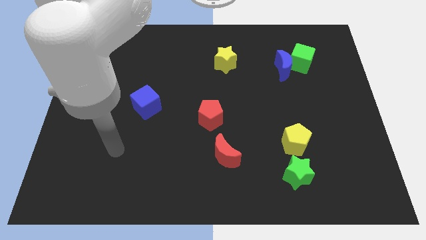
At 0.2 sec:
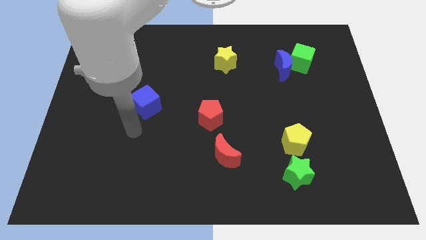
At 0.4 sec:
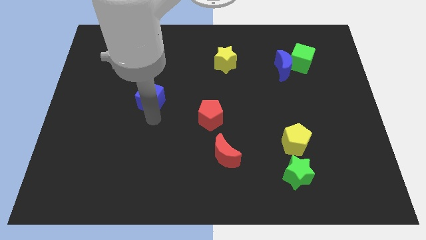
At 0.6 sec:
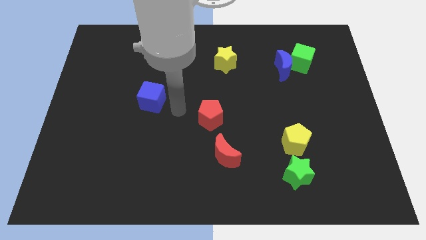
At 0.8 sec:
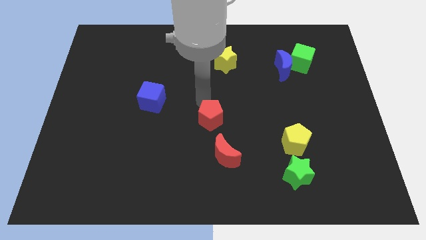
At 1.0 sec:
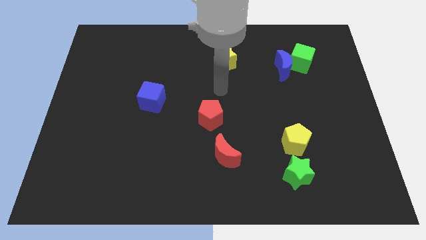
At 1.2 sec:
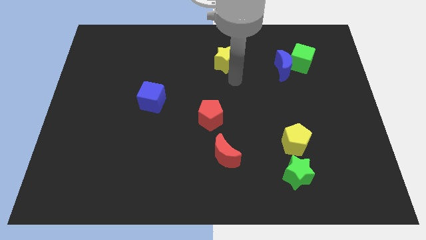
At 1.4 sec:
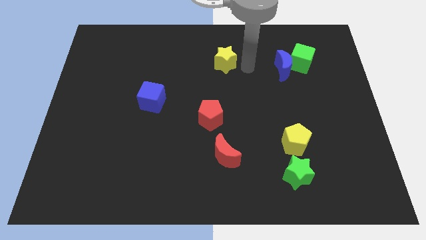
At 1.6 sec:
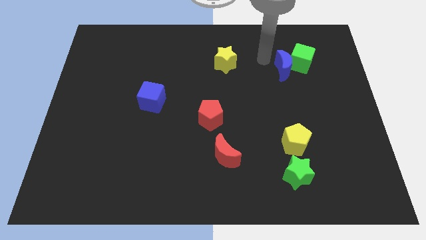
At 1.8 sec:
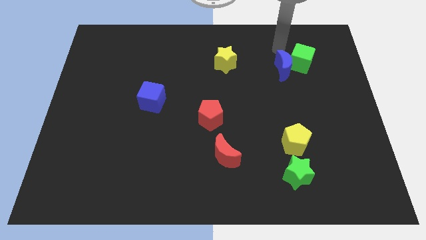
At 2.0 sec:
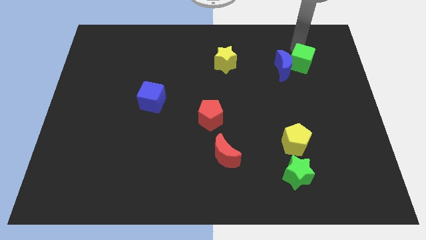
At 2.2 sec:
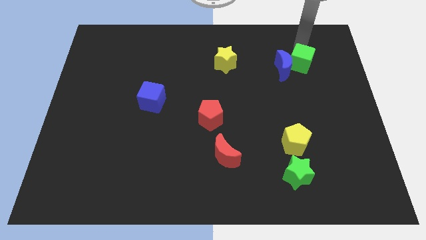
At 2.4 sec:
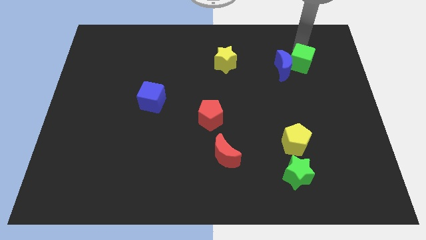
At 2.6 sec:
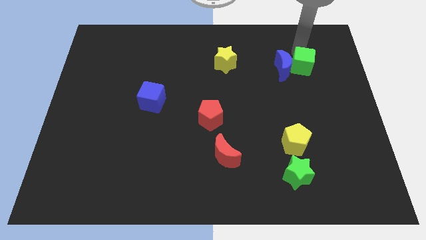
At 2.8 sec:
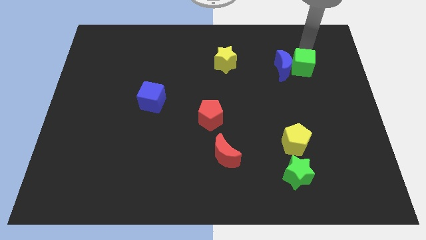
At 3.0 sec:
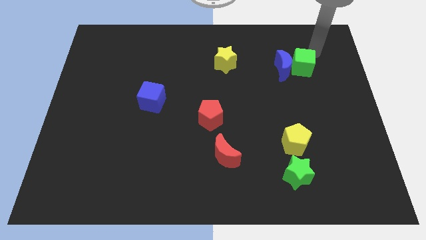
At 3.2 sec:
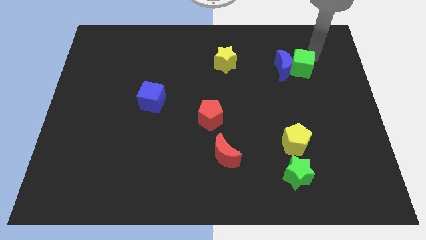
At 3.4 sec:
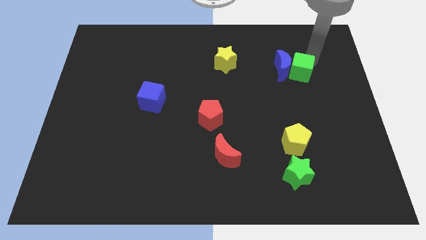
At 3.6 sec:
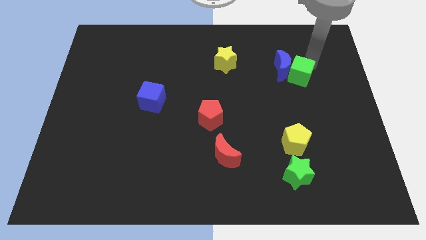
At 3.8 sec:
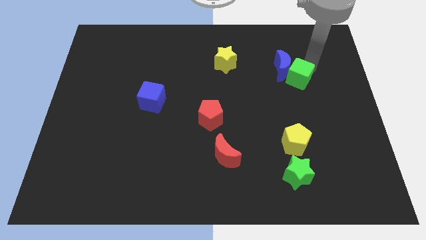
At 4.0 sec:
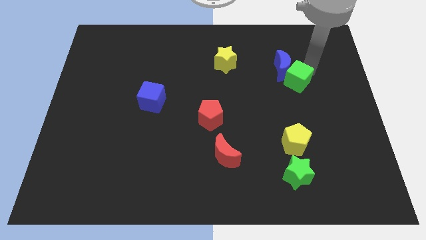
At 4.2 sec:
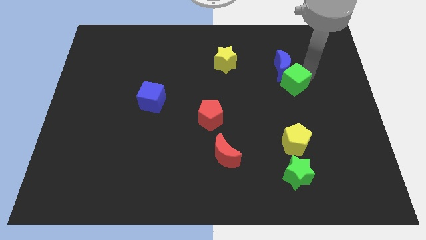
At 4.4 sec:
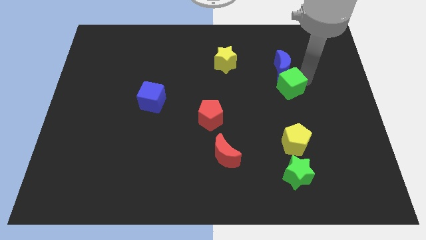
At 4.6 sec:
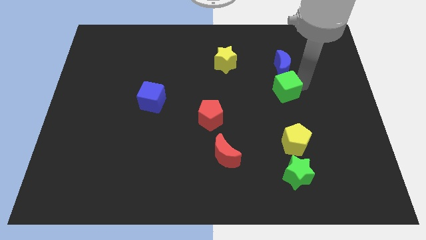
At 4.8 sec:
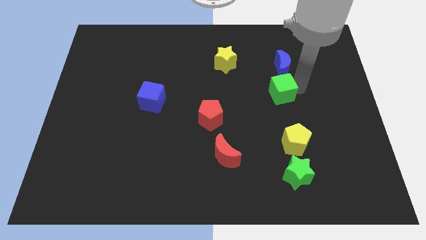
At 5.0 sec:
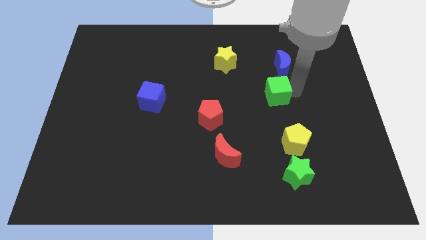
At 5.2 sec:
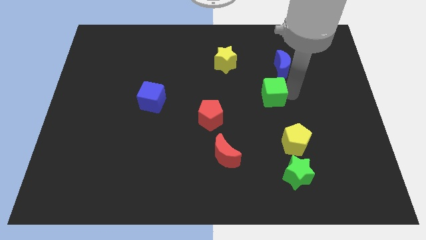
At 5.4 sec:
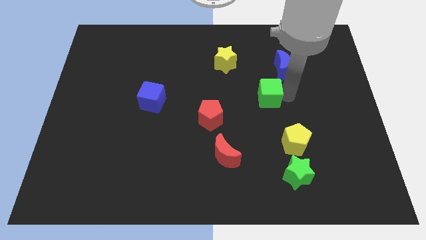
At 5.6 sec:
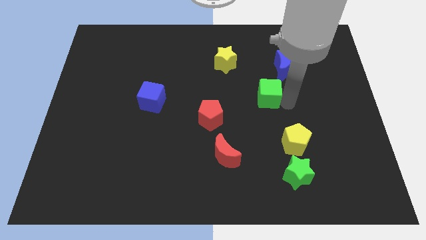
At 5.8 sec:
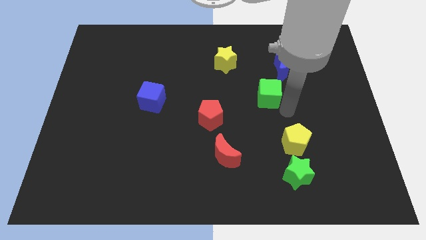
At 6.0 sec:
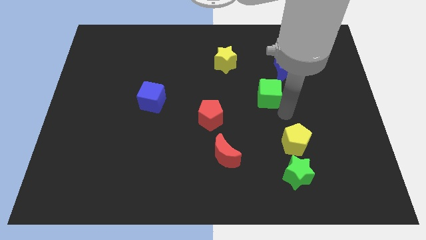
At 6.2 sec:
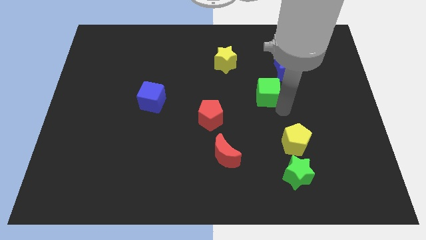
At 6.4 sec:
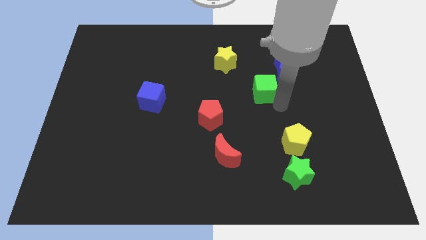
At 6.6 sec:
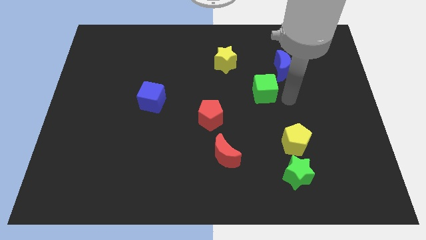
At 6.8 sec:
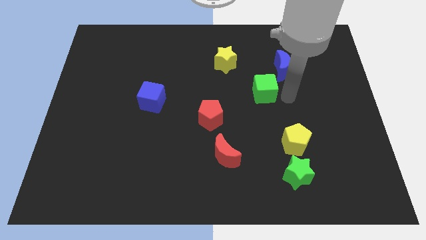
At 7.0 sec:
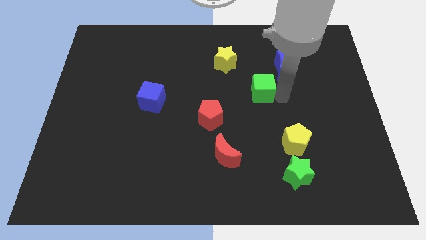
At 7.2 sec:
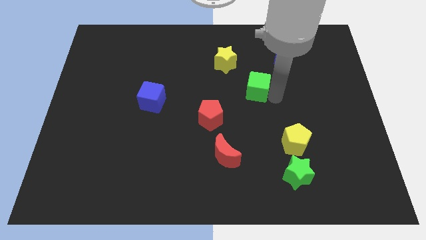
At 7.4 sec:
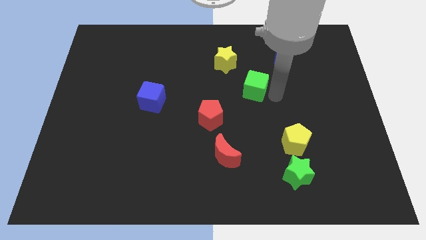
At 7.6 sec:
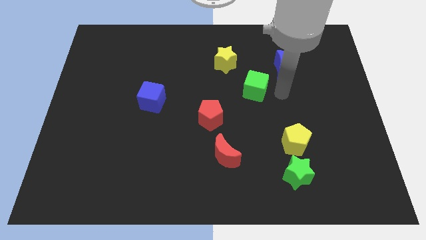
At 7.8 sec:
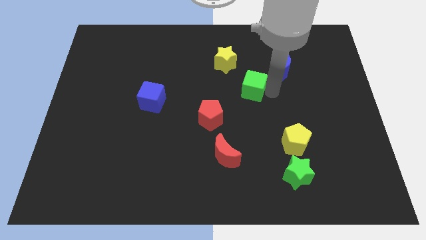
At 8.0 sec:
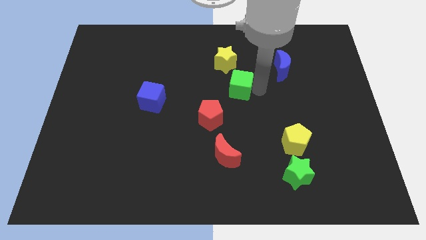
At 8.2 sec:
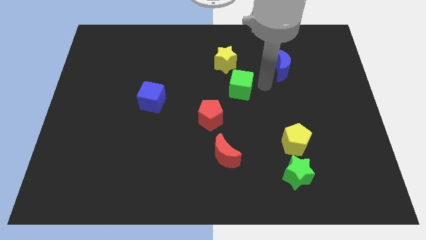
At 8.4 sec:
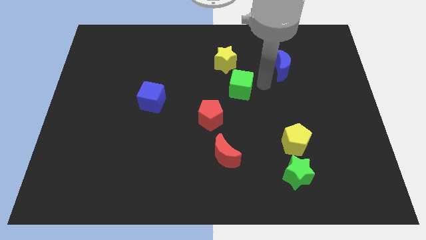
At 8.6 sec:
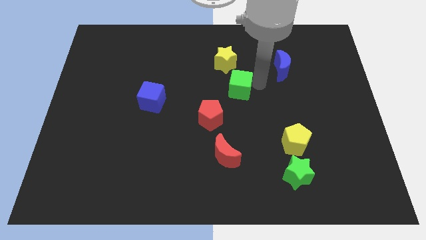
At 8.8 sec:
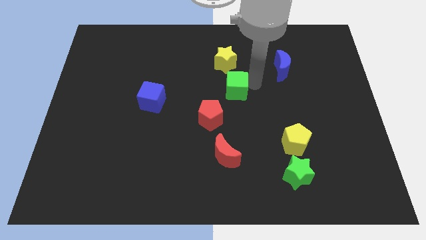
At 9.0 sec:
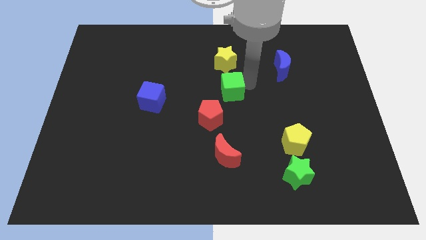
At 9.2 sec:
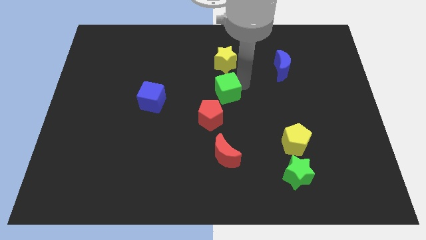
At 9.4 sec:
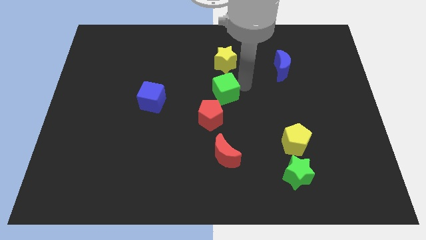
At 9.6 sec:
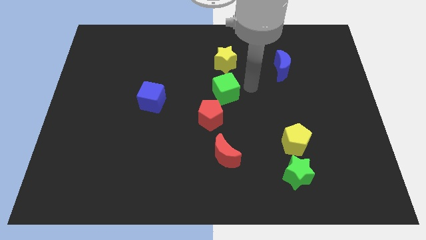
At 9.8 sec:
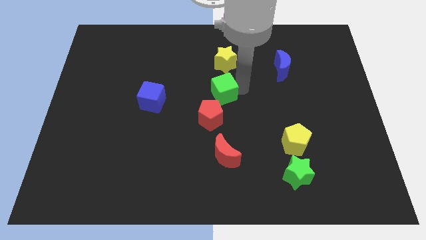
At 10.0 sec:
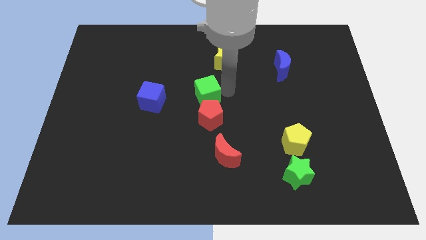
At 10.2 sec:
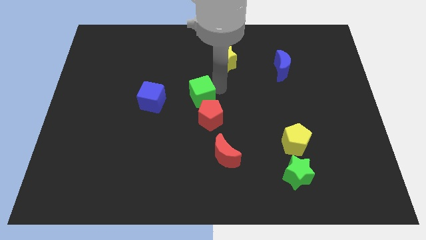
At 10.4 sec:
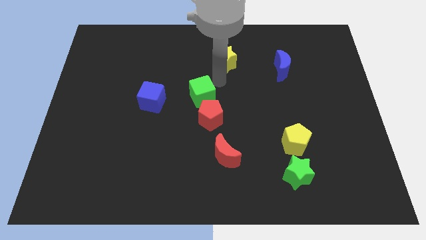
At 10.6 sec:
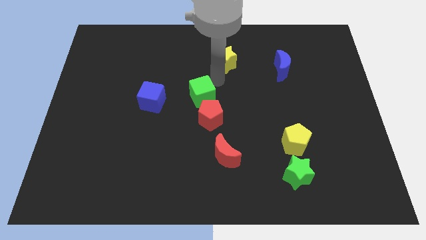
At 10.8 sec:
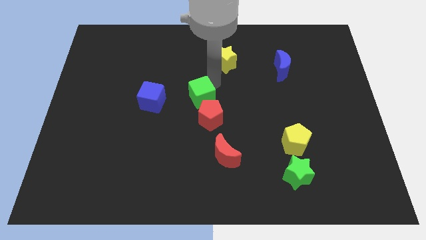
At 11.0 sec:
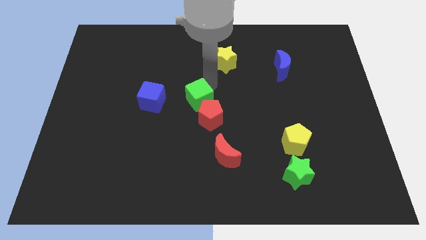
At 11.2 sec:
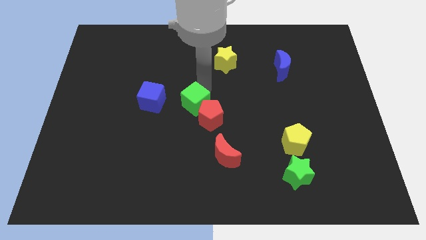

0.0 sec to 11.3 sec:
push the green cube to the left of the red pentagon

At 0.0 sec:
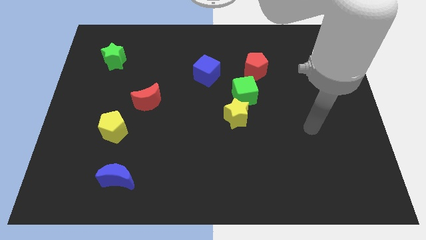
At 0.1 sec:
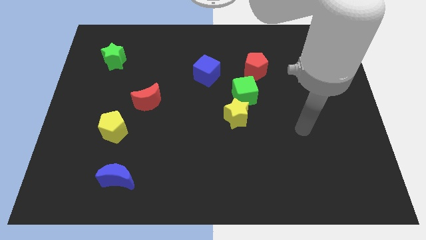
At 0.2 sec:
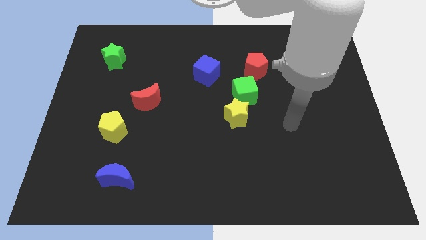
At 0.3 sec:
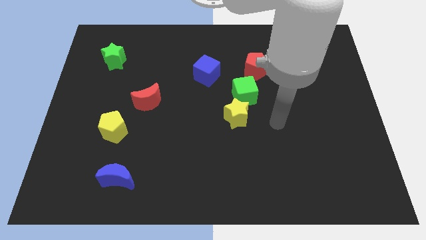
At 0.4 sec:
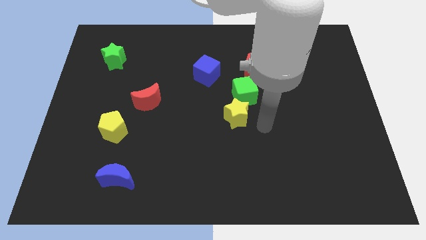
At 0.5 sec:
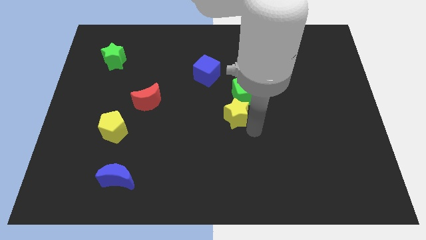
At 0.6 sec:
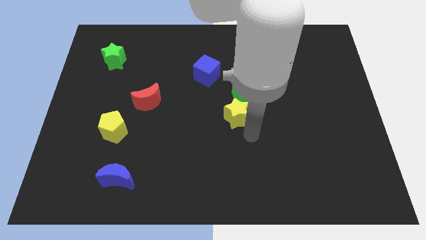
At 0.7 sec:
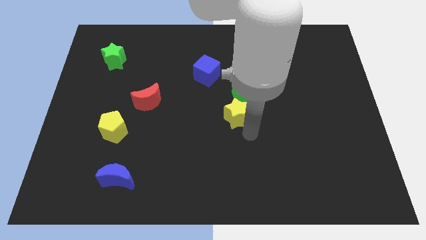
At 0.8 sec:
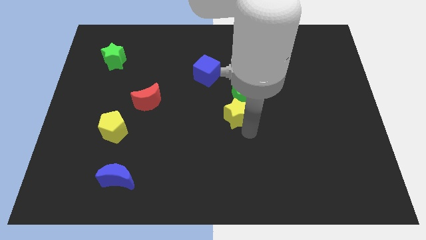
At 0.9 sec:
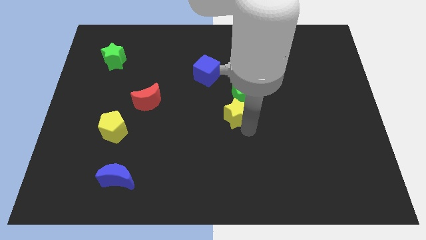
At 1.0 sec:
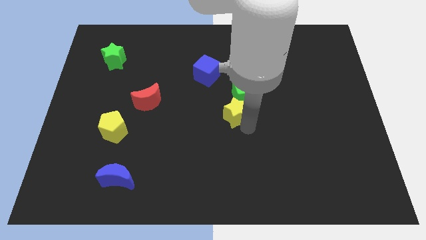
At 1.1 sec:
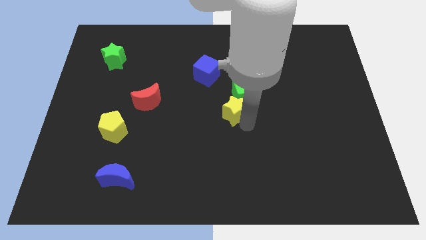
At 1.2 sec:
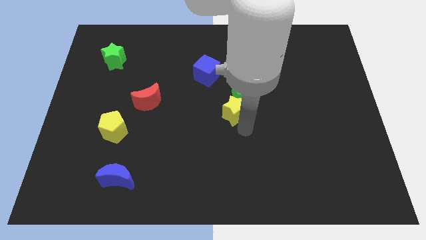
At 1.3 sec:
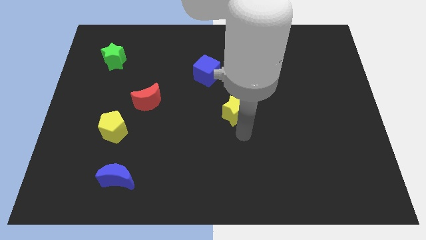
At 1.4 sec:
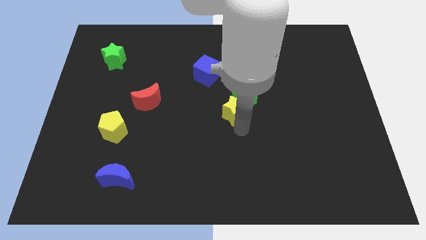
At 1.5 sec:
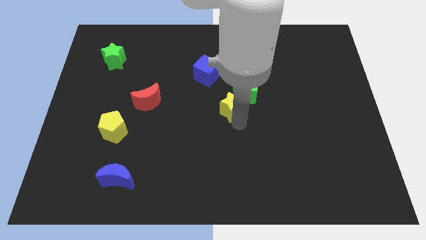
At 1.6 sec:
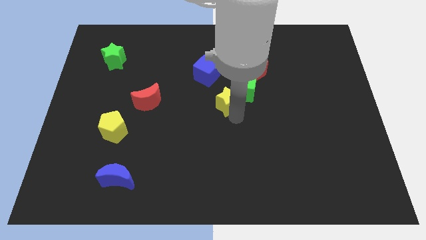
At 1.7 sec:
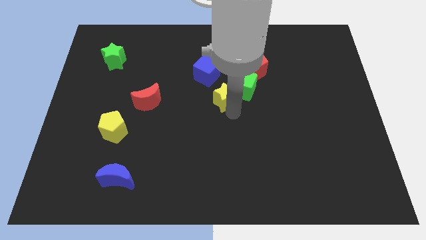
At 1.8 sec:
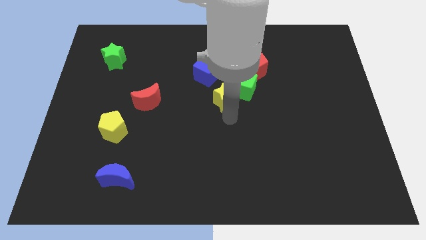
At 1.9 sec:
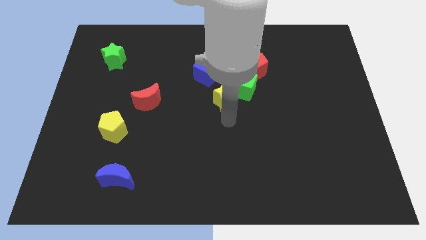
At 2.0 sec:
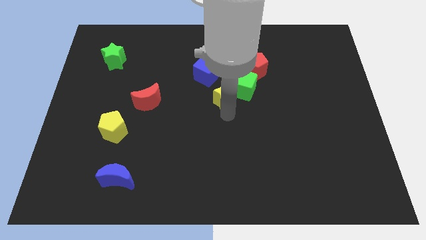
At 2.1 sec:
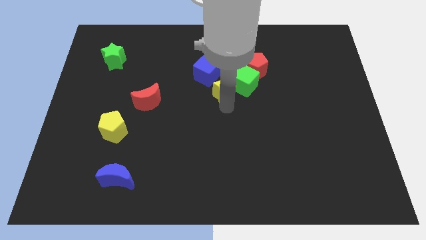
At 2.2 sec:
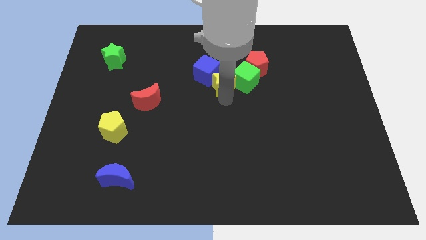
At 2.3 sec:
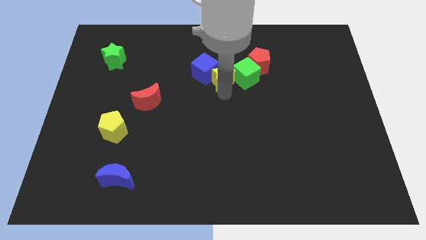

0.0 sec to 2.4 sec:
move the yellow star to the top left side of the green cube
